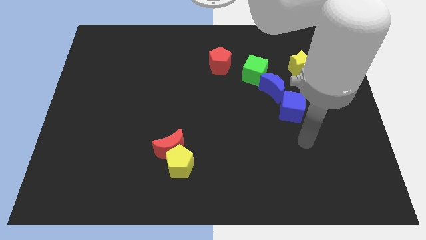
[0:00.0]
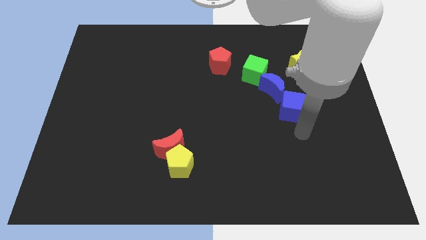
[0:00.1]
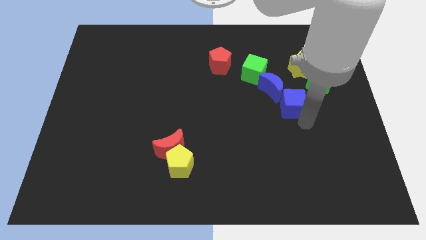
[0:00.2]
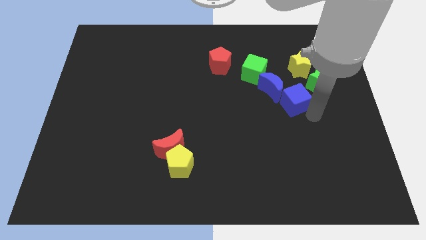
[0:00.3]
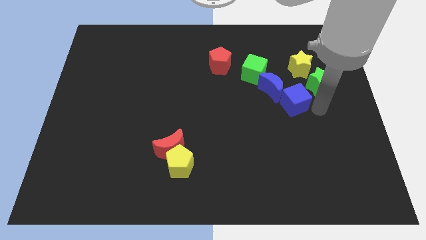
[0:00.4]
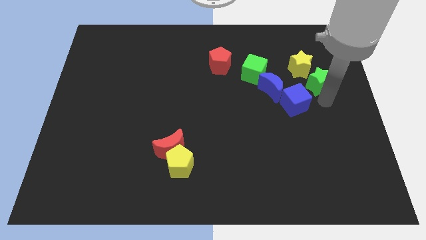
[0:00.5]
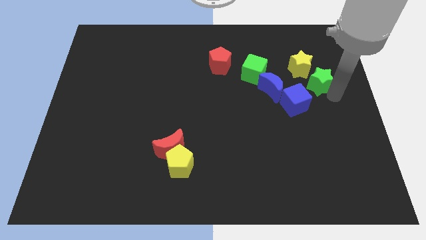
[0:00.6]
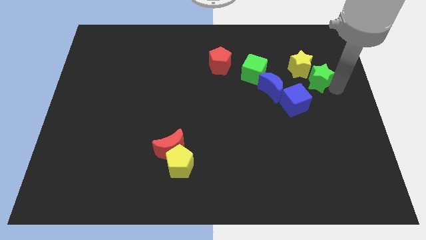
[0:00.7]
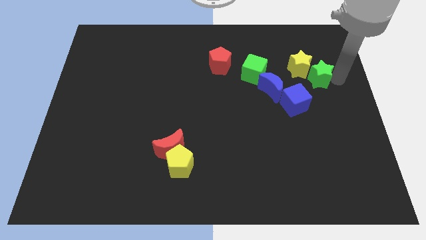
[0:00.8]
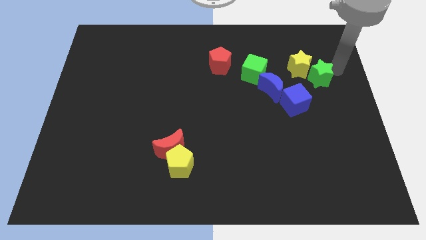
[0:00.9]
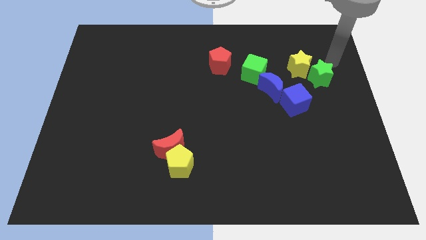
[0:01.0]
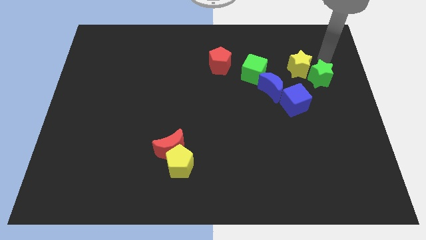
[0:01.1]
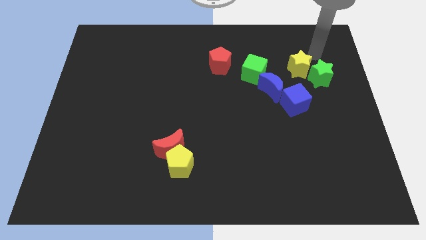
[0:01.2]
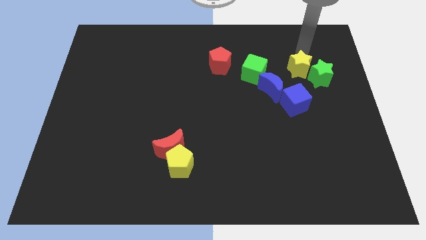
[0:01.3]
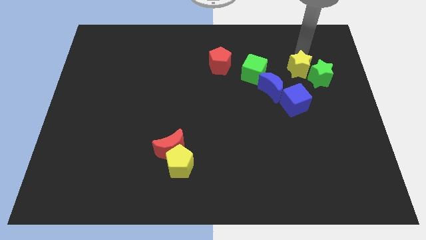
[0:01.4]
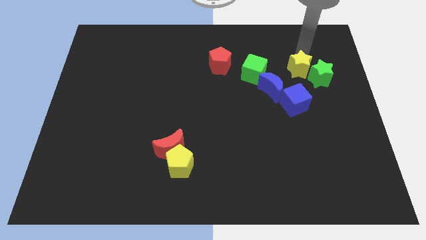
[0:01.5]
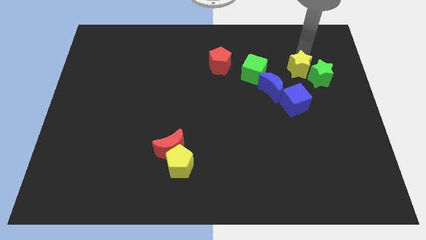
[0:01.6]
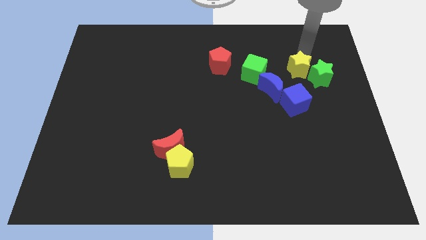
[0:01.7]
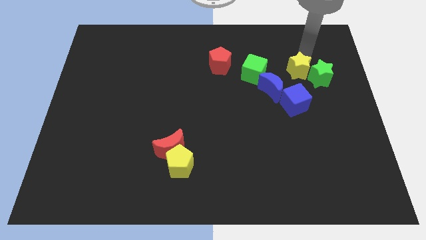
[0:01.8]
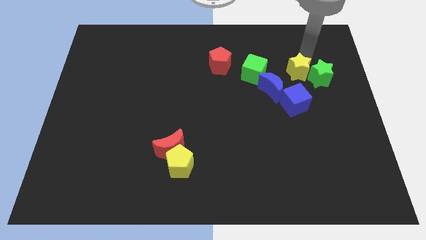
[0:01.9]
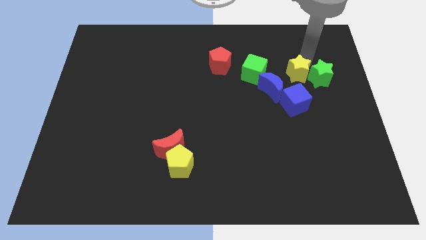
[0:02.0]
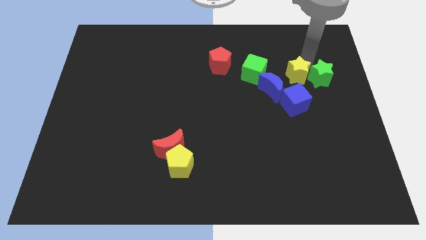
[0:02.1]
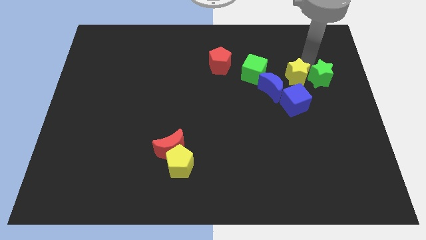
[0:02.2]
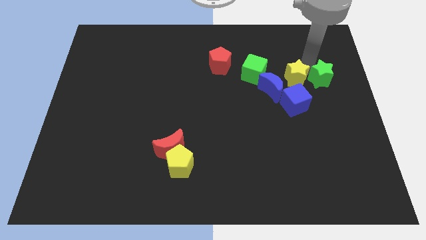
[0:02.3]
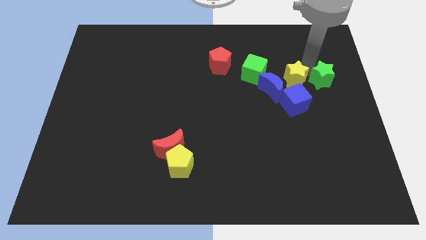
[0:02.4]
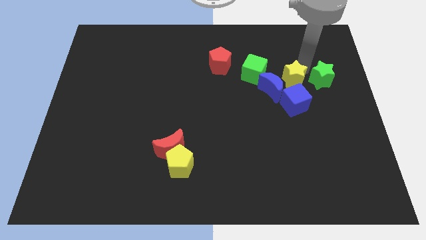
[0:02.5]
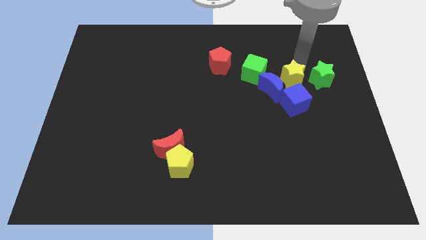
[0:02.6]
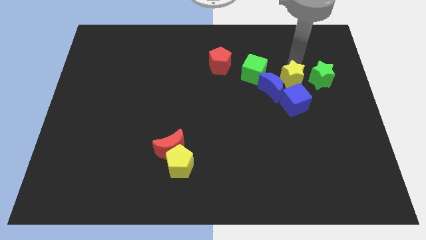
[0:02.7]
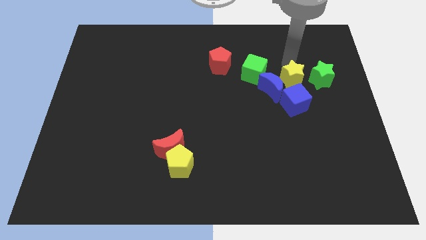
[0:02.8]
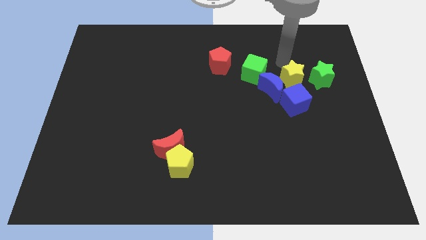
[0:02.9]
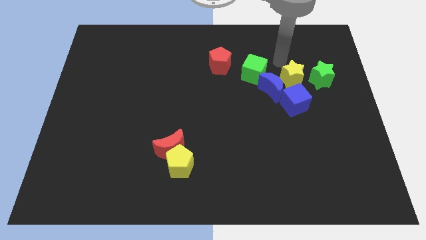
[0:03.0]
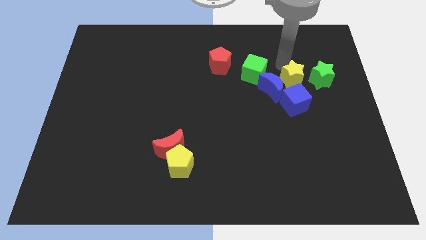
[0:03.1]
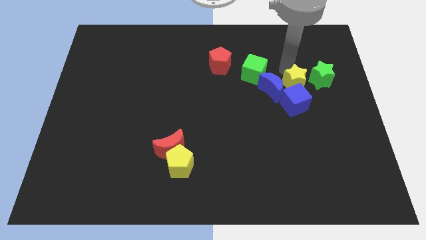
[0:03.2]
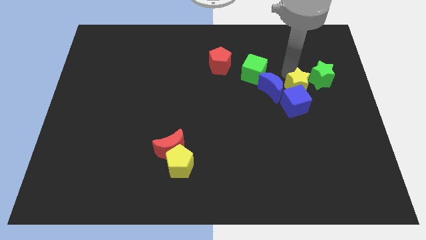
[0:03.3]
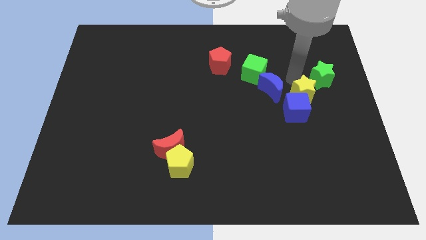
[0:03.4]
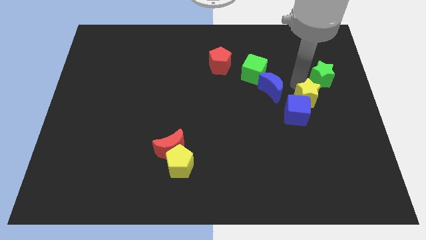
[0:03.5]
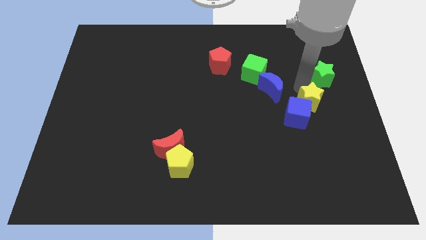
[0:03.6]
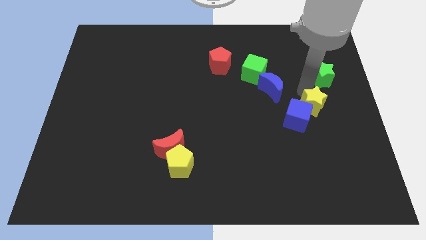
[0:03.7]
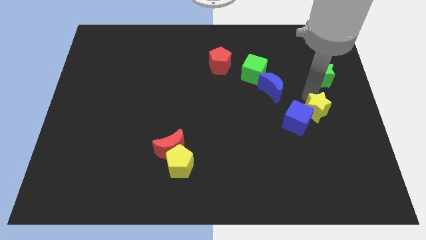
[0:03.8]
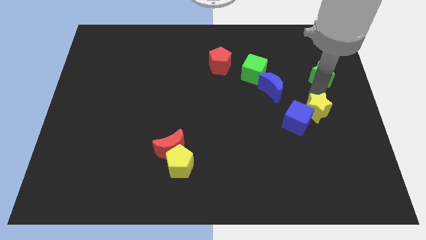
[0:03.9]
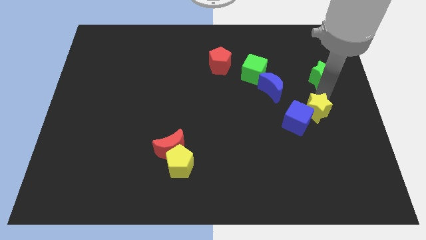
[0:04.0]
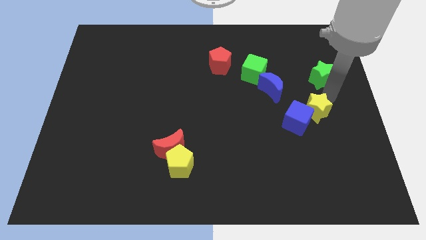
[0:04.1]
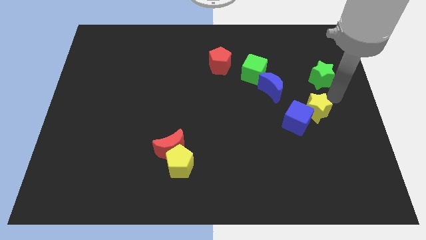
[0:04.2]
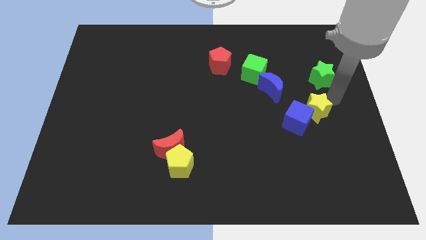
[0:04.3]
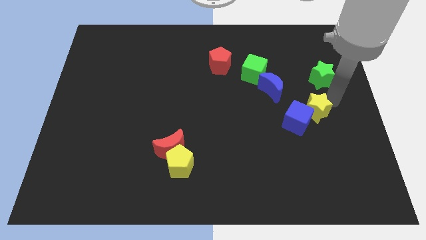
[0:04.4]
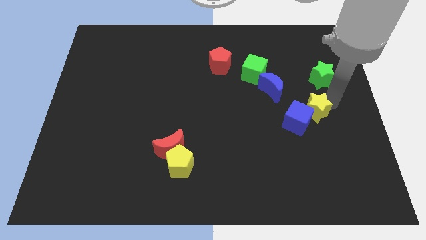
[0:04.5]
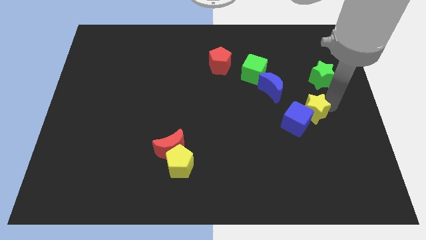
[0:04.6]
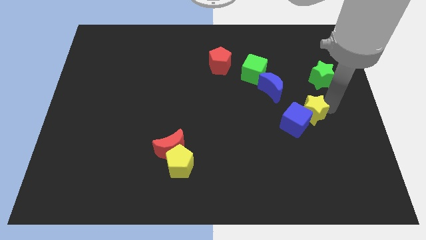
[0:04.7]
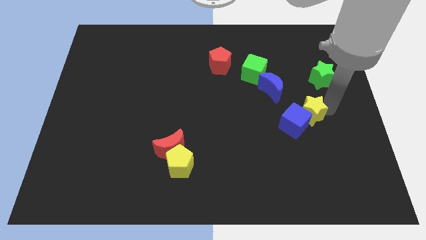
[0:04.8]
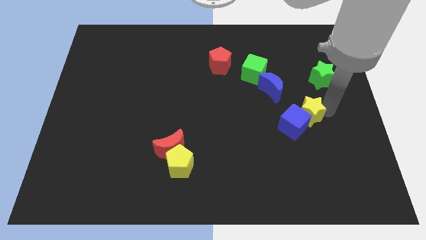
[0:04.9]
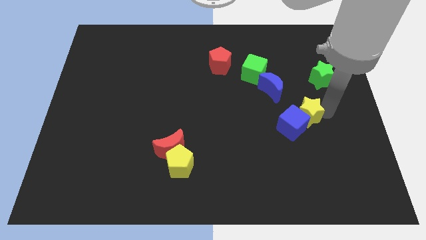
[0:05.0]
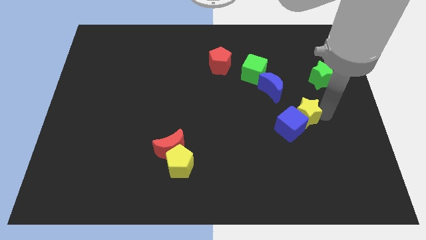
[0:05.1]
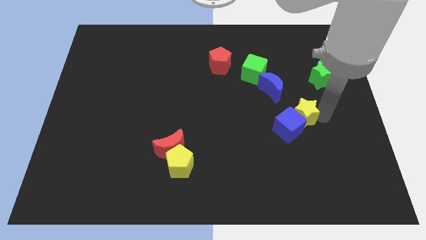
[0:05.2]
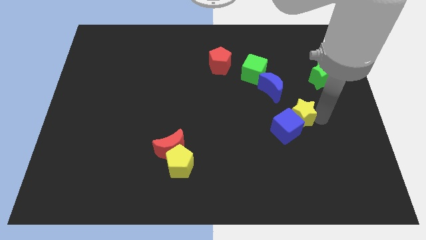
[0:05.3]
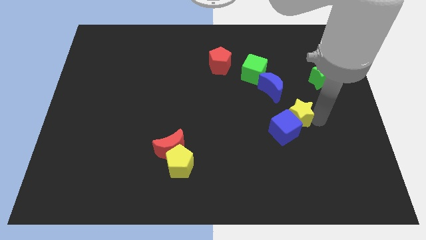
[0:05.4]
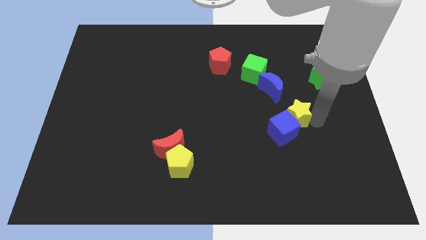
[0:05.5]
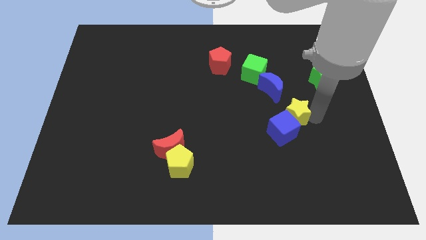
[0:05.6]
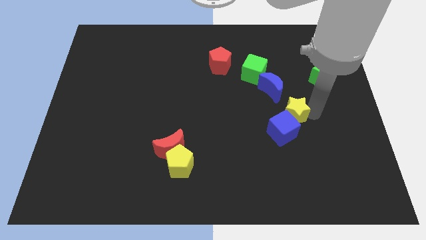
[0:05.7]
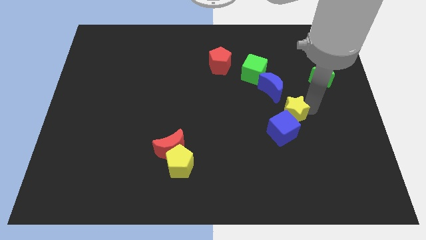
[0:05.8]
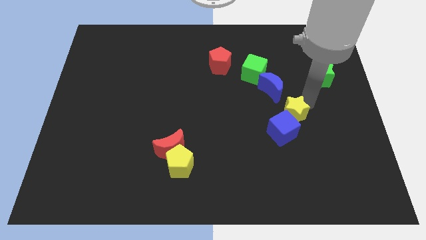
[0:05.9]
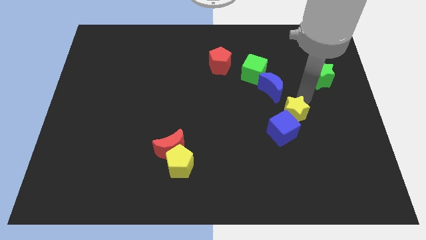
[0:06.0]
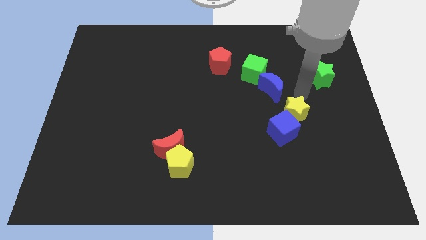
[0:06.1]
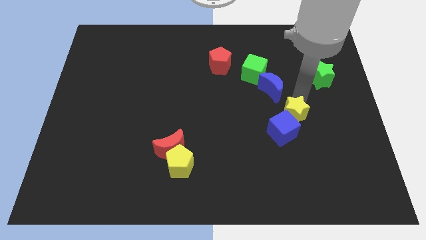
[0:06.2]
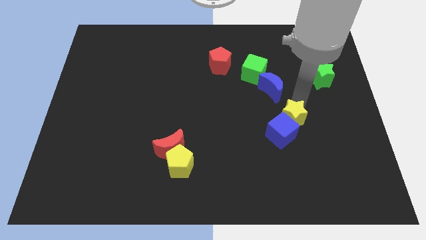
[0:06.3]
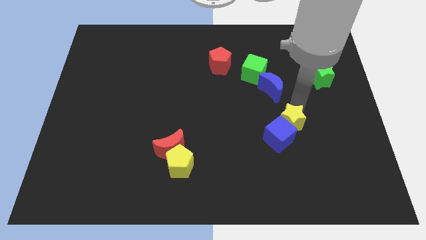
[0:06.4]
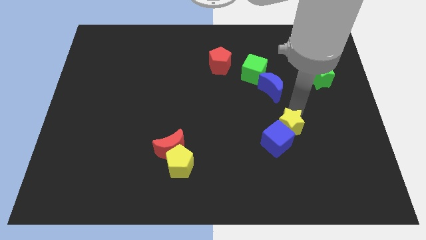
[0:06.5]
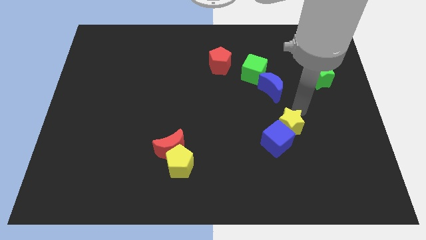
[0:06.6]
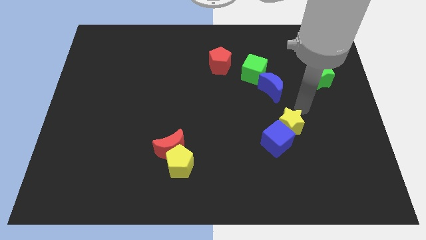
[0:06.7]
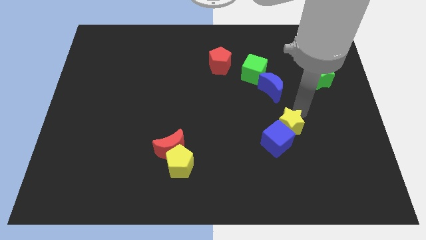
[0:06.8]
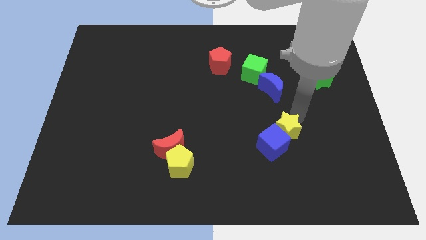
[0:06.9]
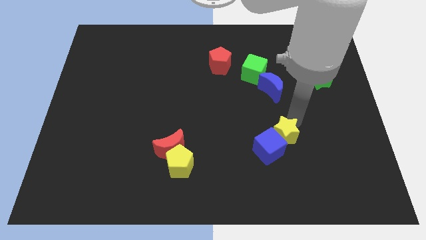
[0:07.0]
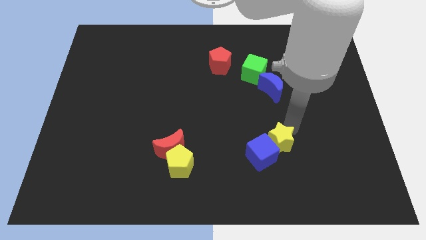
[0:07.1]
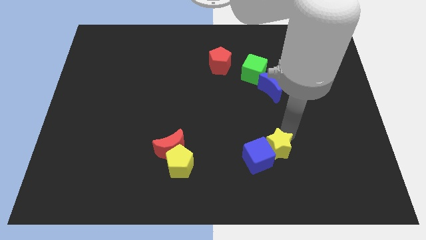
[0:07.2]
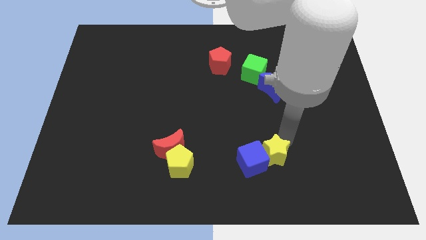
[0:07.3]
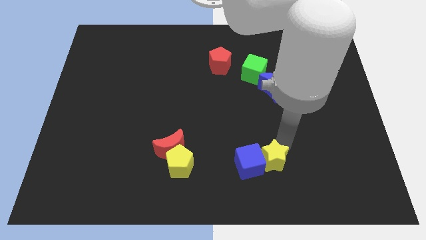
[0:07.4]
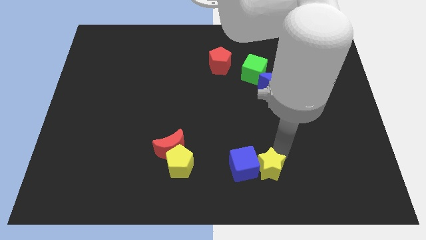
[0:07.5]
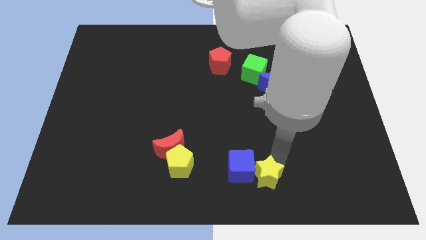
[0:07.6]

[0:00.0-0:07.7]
slide the yellow star to the bottom
